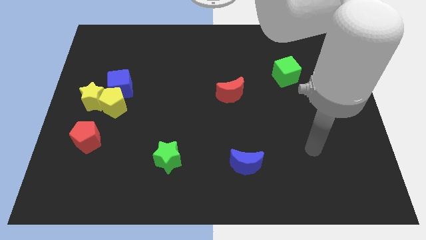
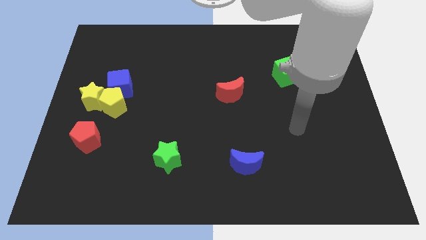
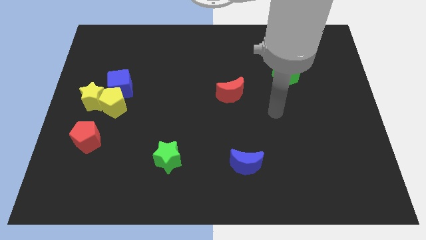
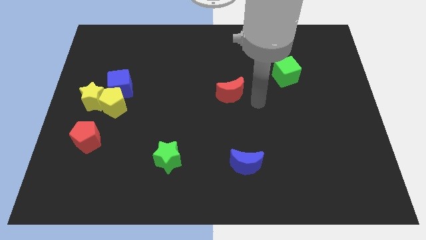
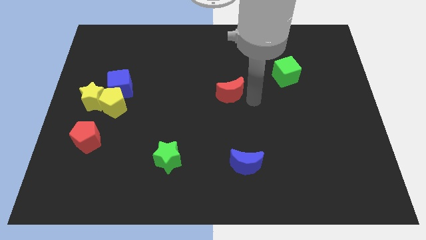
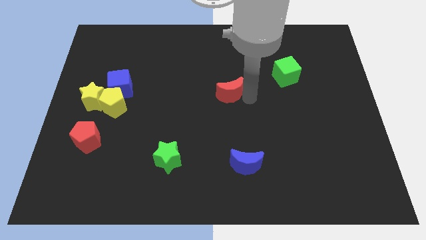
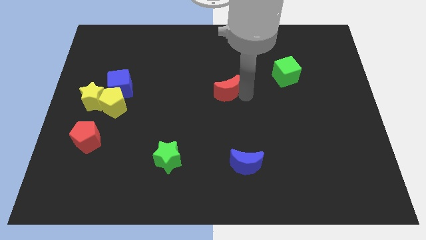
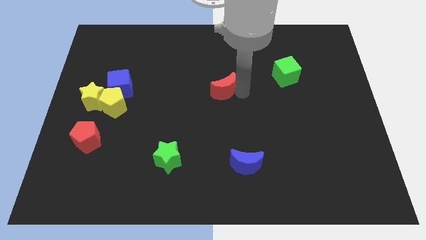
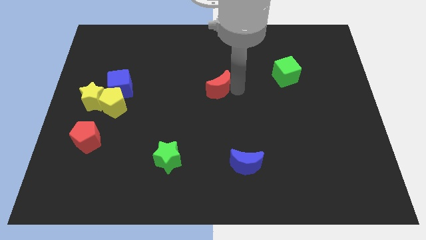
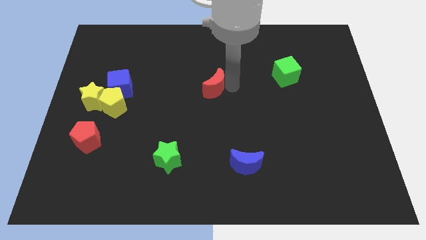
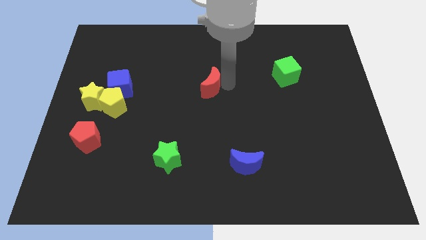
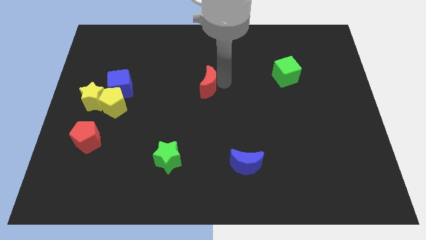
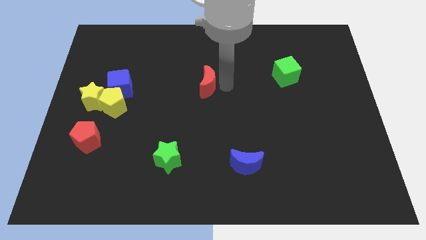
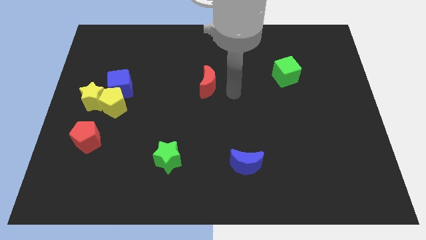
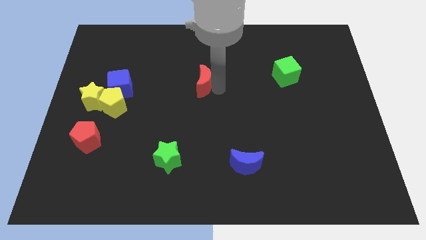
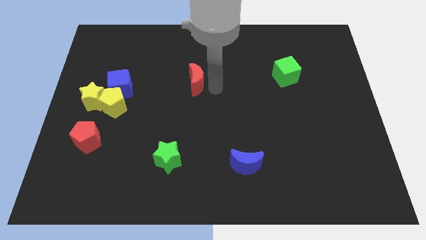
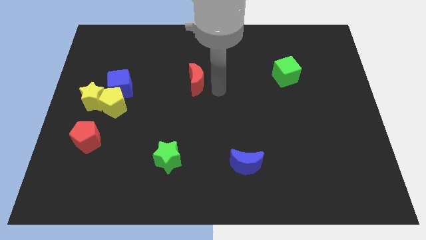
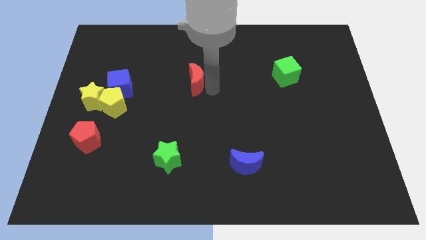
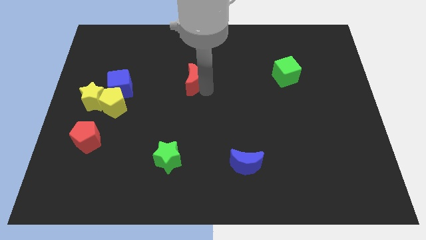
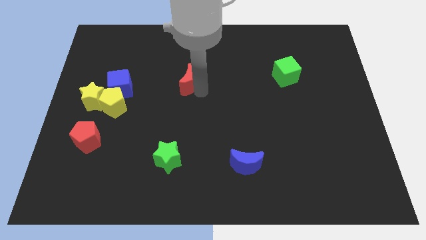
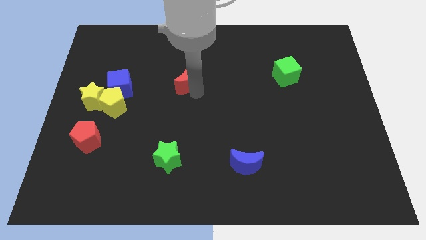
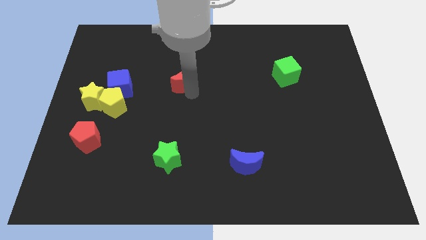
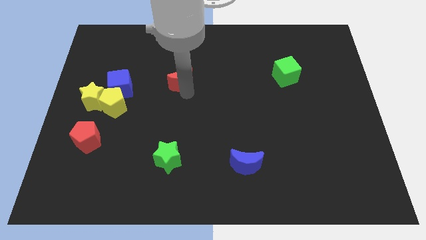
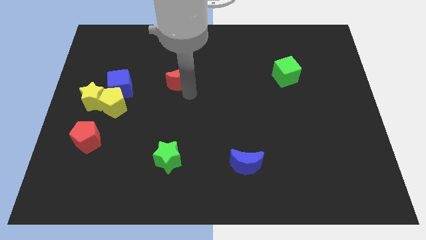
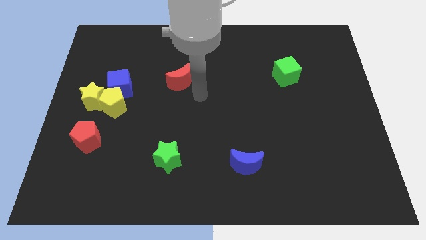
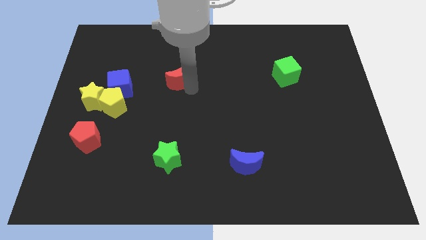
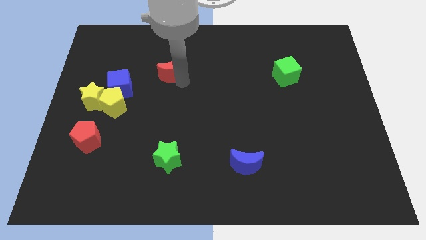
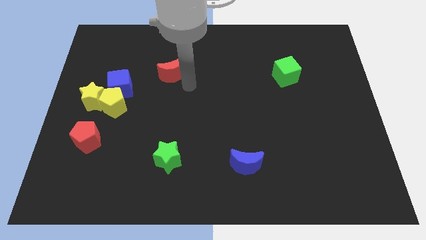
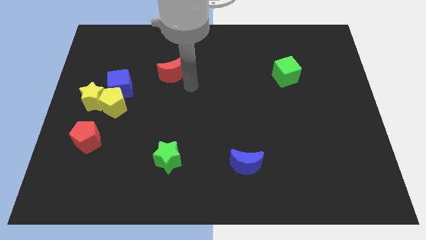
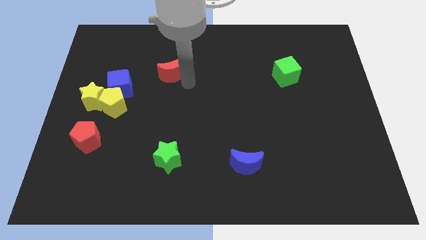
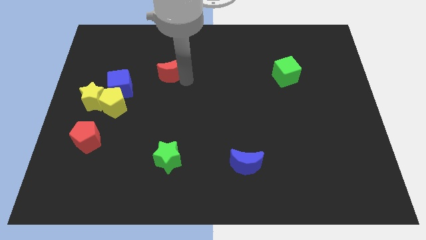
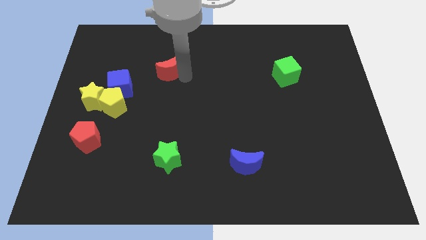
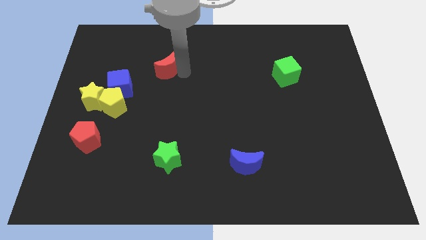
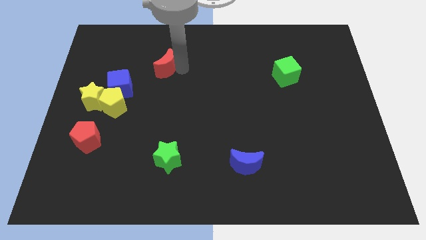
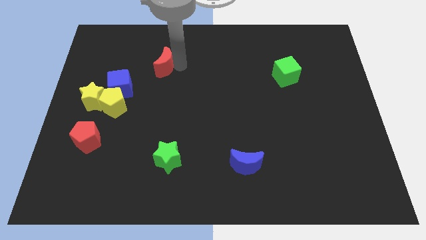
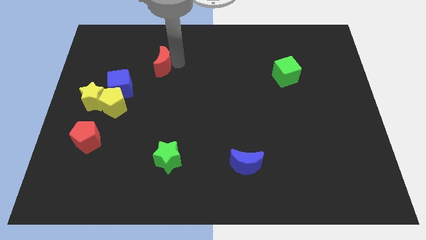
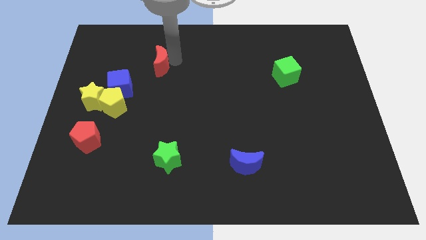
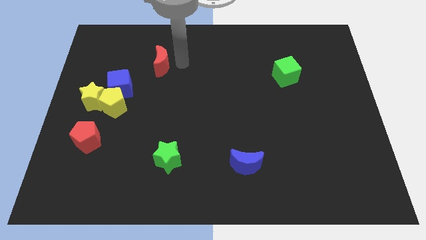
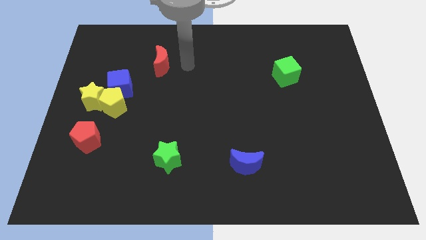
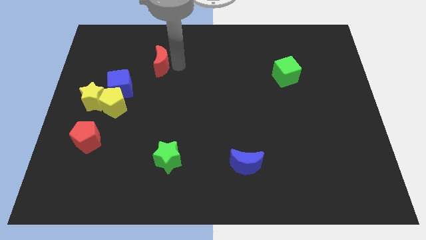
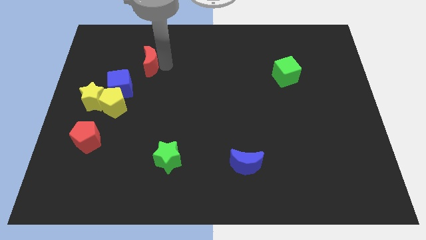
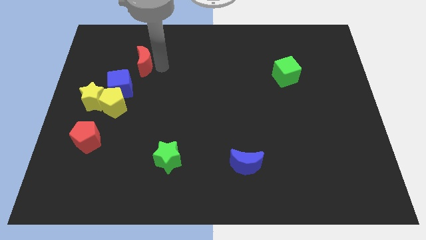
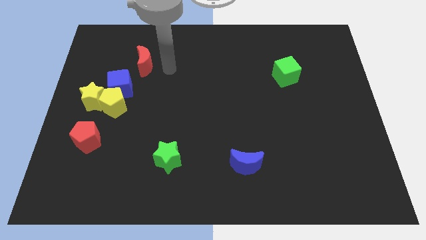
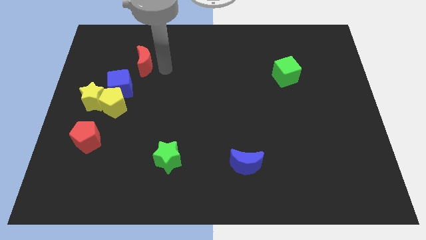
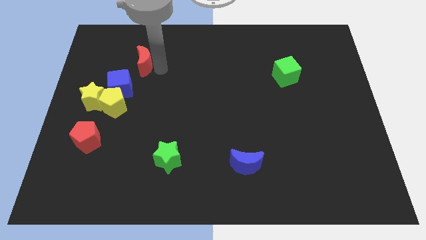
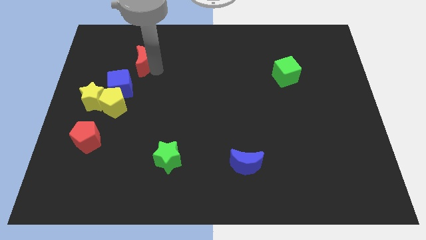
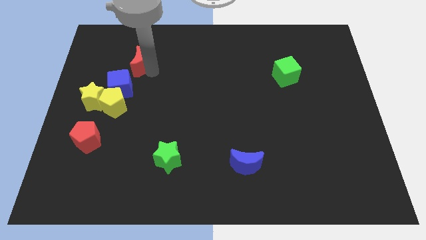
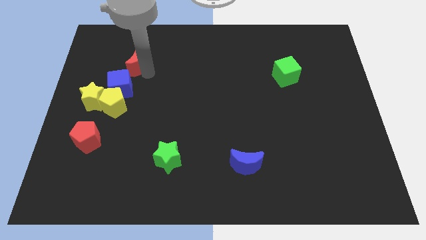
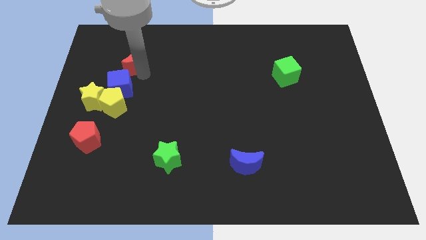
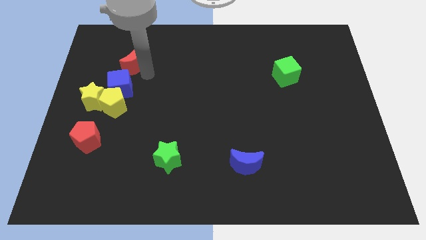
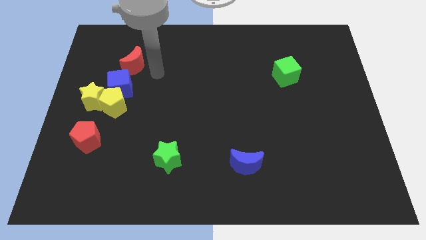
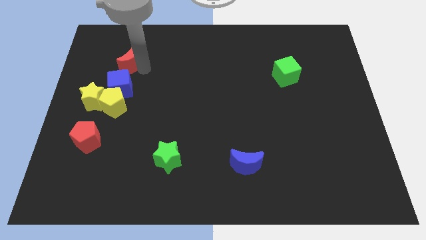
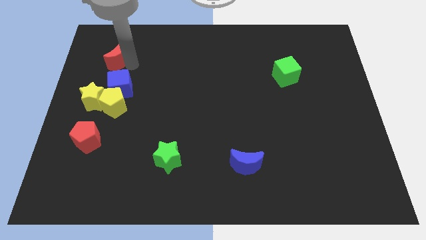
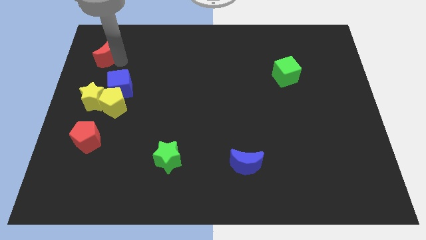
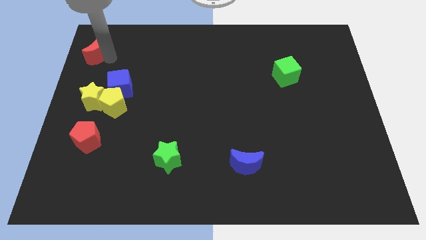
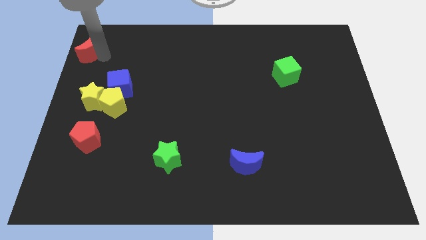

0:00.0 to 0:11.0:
push the red moon to the upper left corner

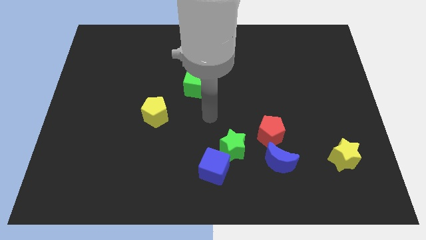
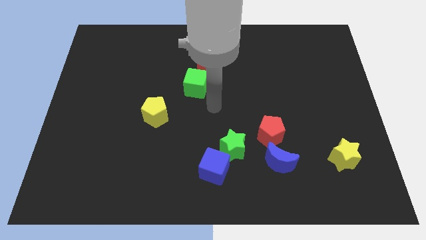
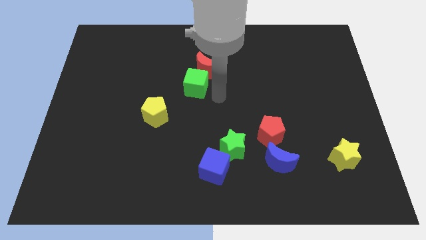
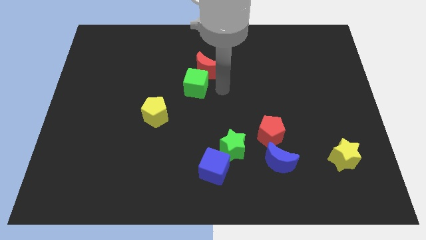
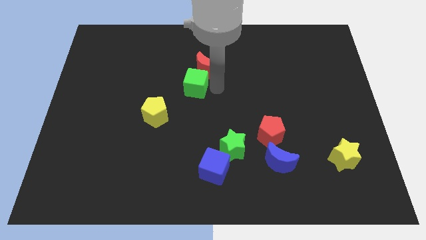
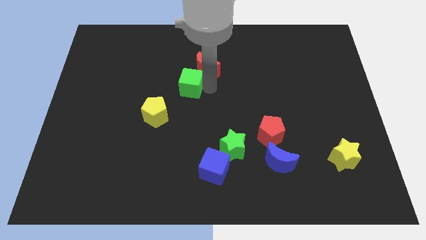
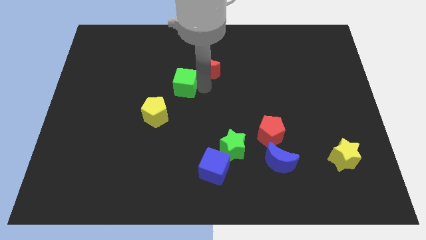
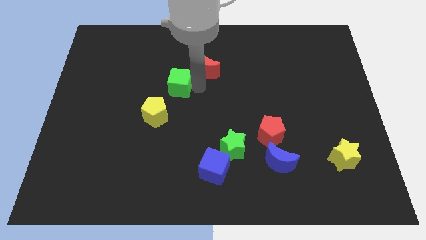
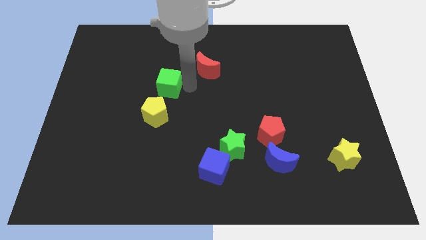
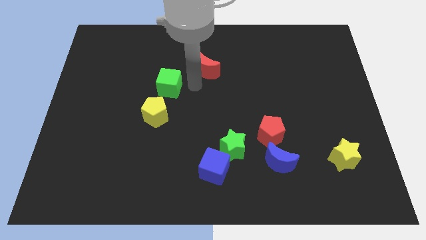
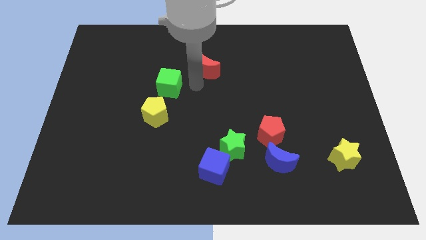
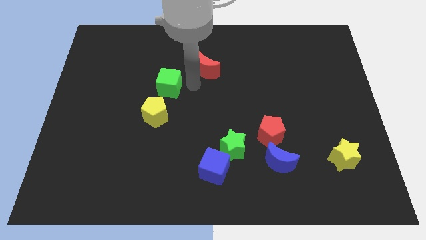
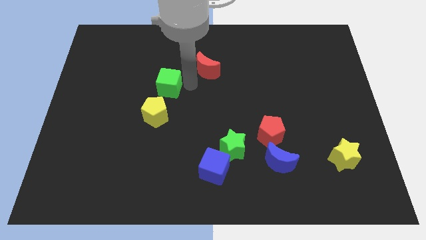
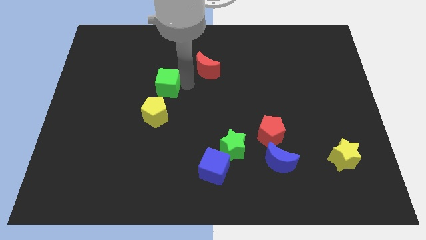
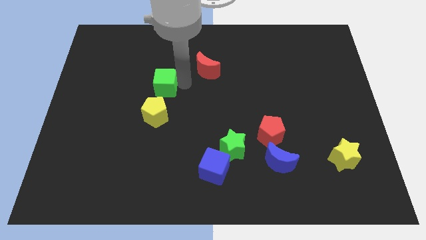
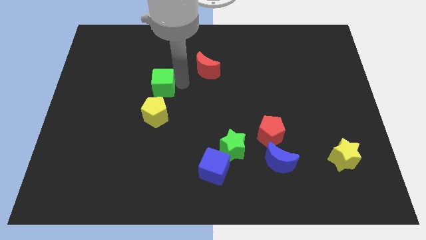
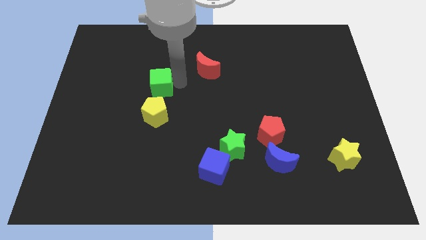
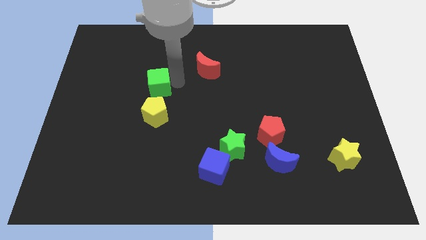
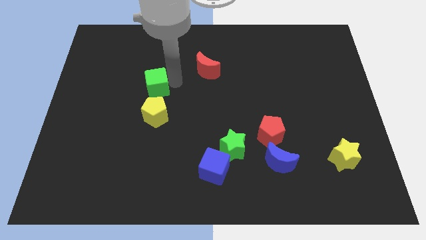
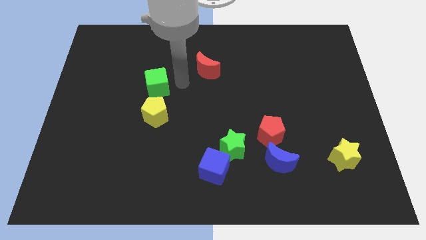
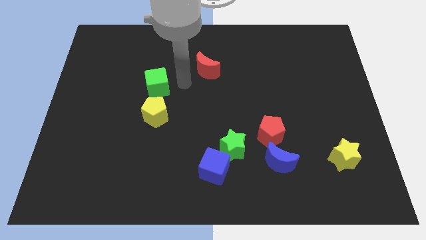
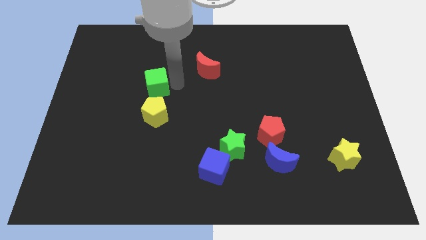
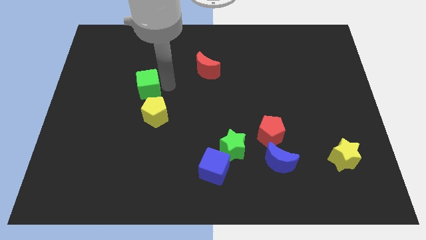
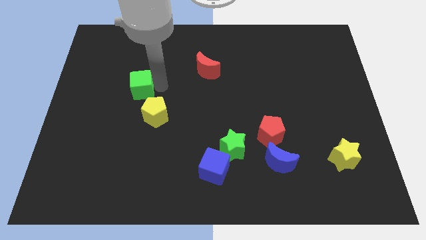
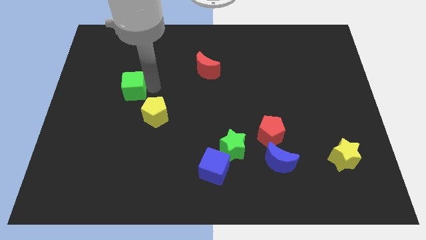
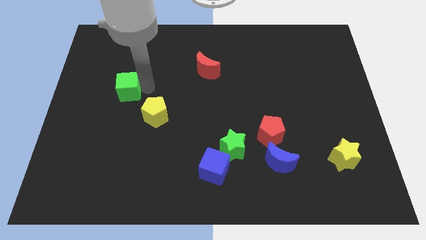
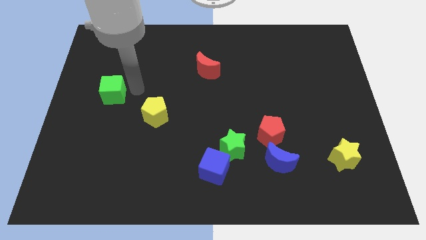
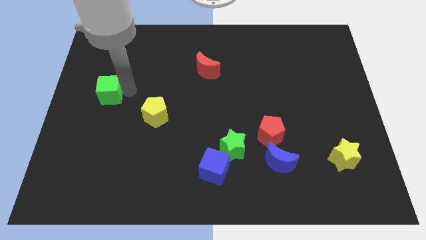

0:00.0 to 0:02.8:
put the green cube to the center left
